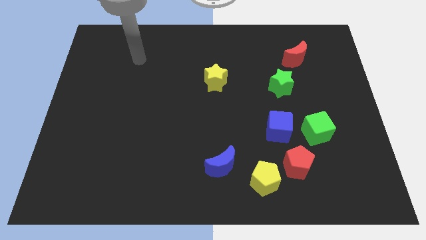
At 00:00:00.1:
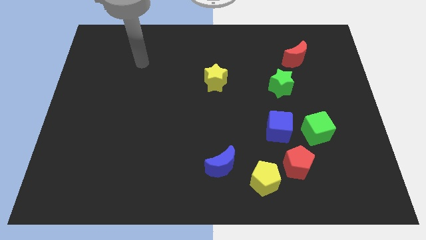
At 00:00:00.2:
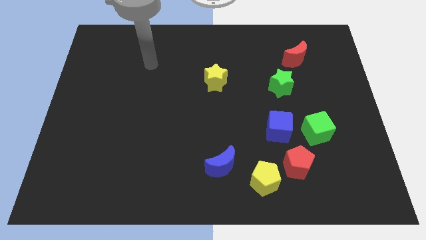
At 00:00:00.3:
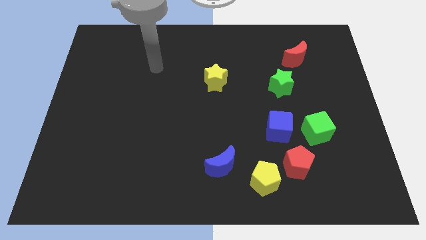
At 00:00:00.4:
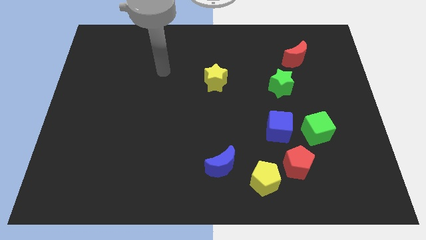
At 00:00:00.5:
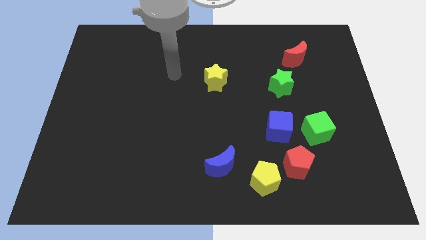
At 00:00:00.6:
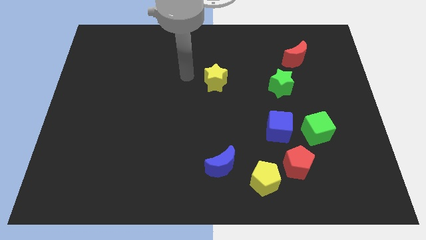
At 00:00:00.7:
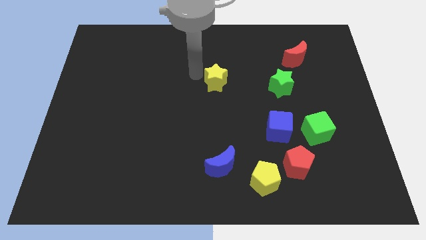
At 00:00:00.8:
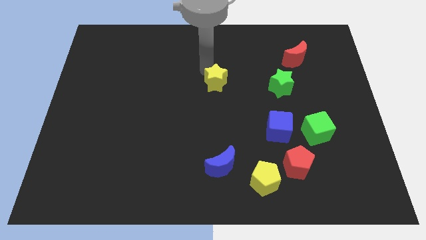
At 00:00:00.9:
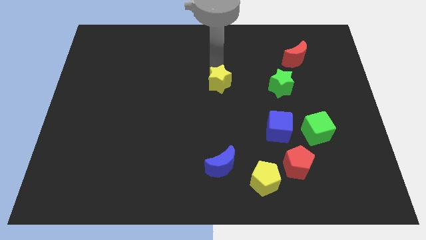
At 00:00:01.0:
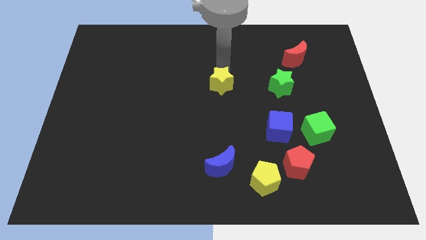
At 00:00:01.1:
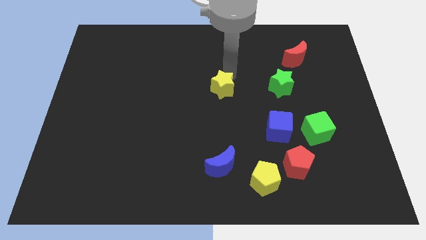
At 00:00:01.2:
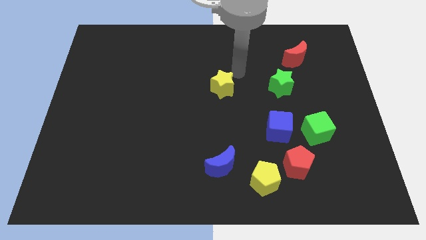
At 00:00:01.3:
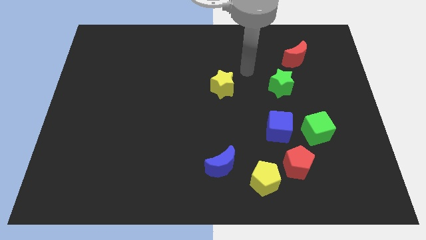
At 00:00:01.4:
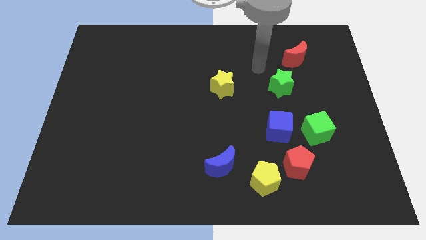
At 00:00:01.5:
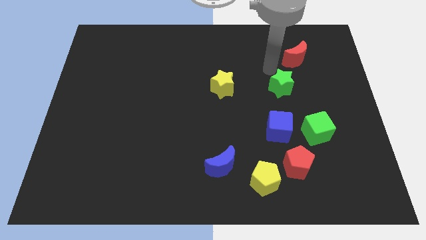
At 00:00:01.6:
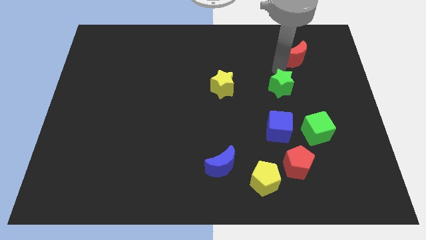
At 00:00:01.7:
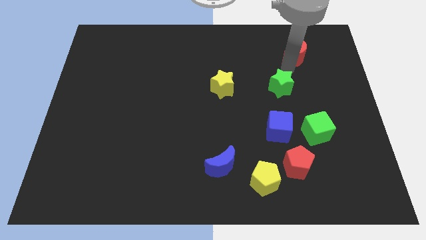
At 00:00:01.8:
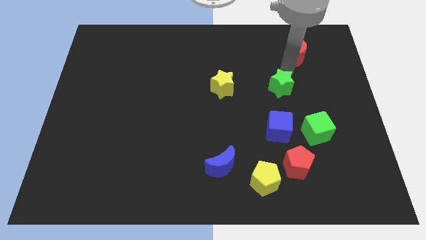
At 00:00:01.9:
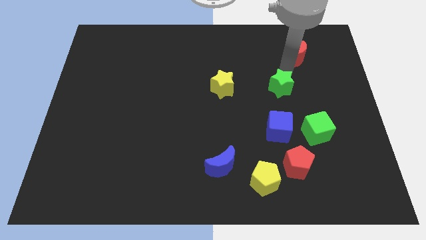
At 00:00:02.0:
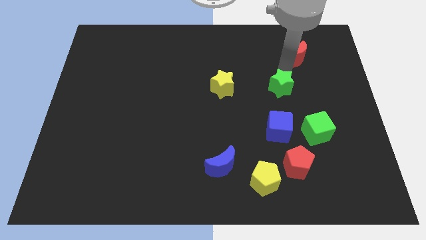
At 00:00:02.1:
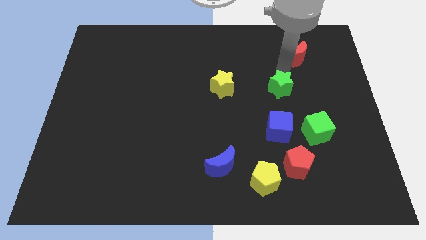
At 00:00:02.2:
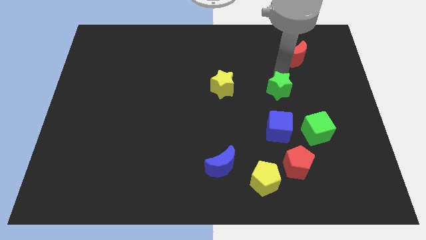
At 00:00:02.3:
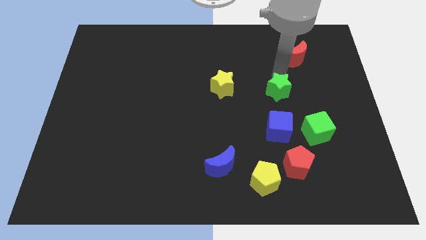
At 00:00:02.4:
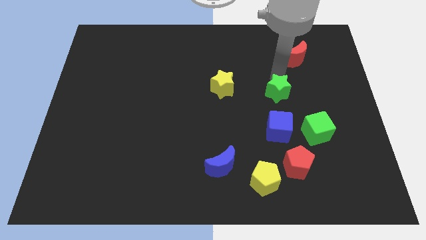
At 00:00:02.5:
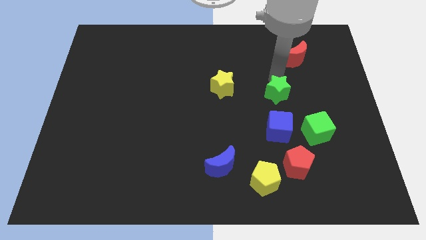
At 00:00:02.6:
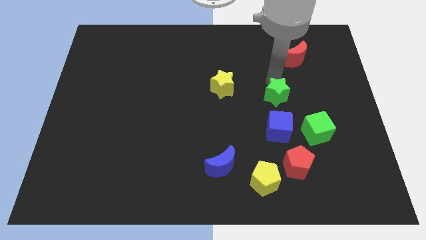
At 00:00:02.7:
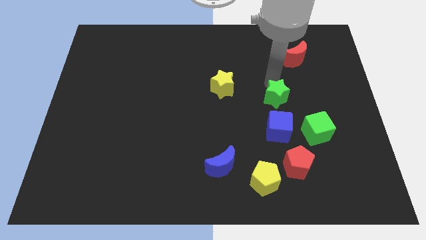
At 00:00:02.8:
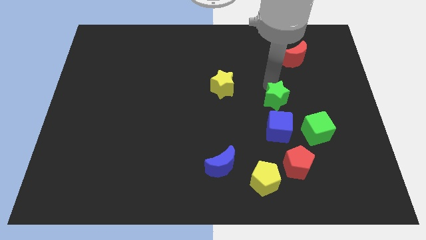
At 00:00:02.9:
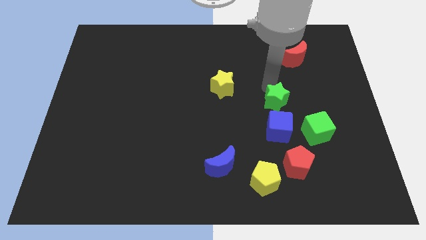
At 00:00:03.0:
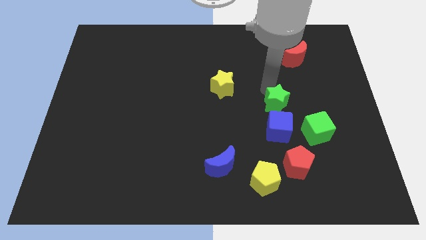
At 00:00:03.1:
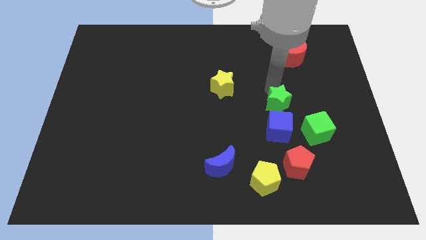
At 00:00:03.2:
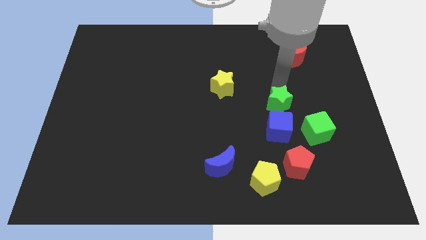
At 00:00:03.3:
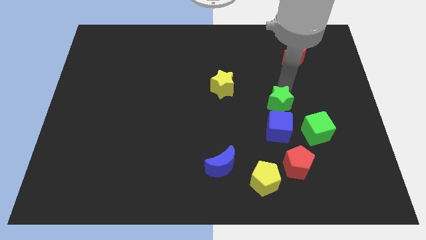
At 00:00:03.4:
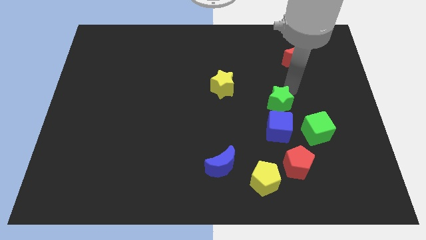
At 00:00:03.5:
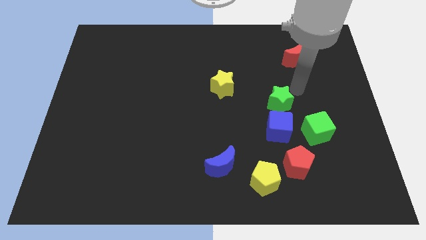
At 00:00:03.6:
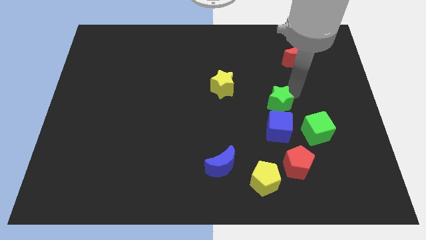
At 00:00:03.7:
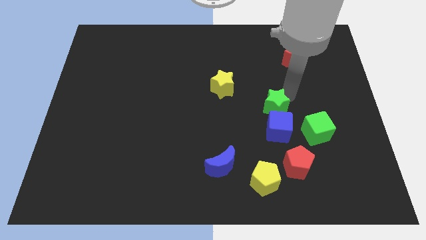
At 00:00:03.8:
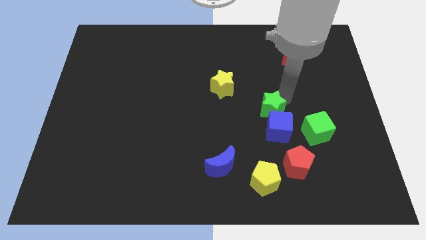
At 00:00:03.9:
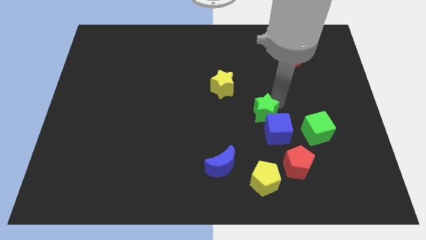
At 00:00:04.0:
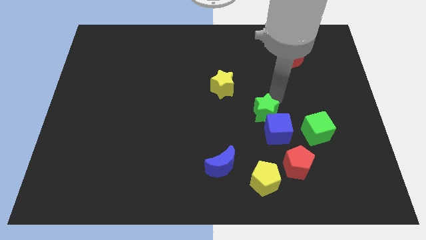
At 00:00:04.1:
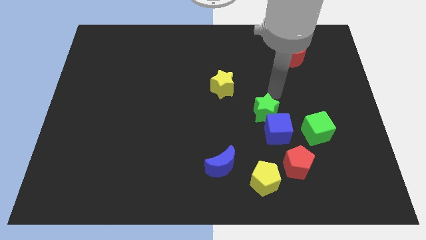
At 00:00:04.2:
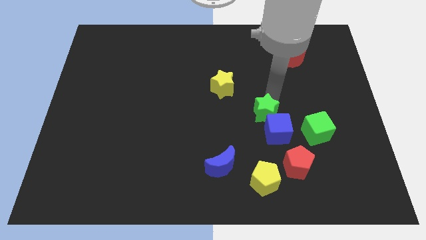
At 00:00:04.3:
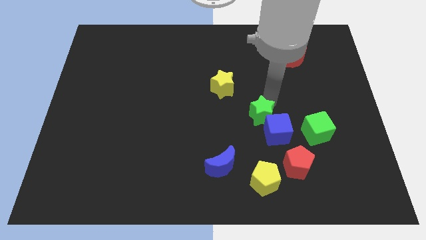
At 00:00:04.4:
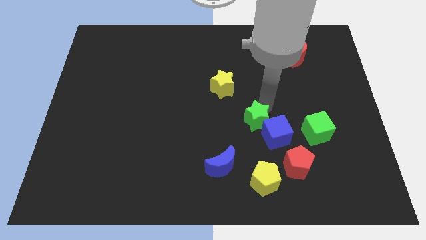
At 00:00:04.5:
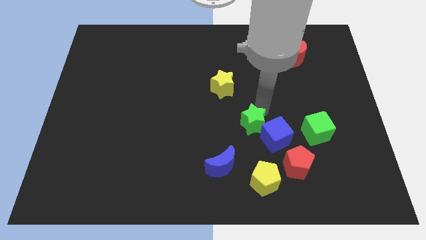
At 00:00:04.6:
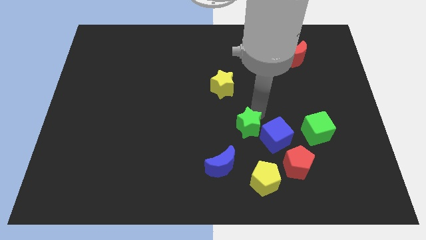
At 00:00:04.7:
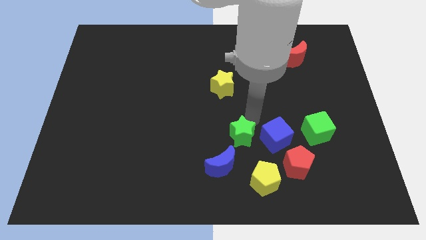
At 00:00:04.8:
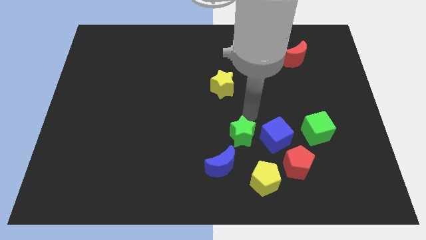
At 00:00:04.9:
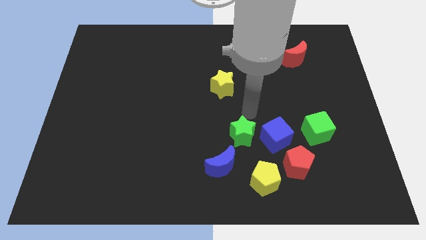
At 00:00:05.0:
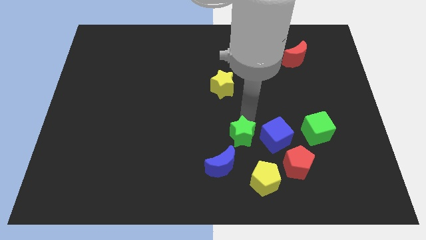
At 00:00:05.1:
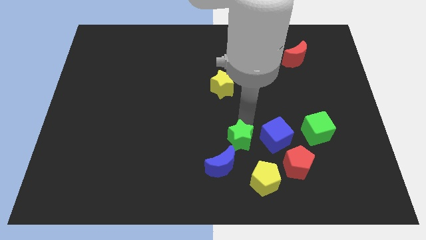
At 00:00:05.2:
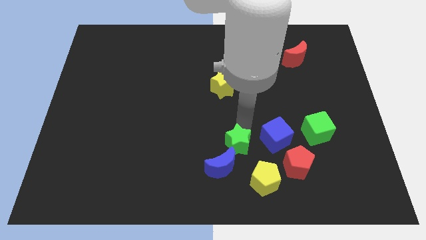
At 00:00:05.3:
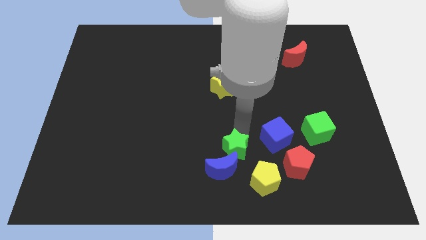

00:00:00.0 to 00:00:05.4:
put the green star to the blue moon

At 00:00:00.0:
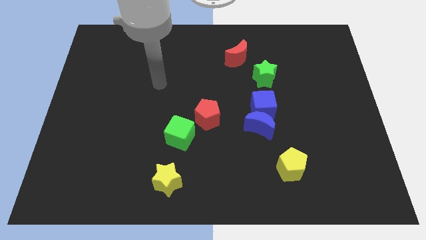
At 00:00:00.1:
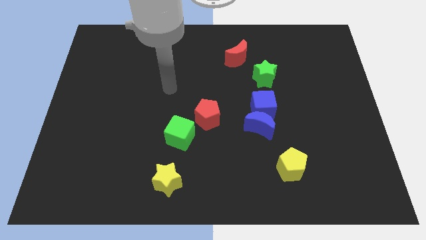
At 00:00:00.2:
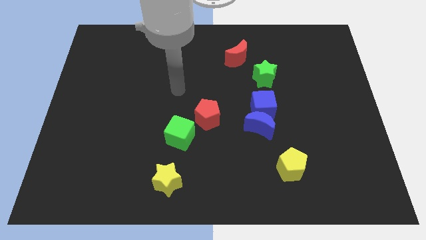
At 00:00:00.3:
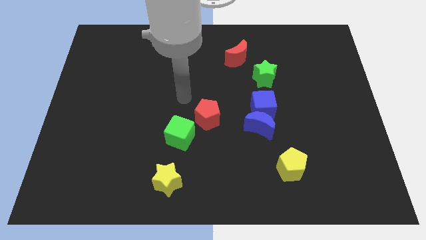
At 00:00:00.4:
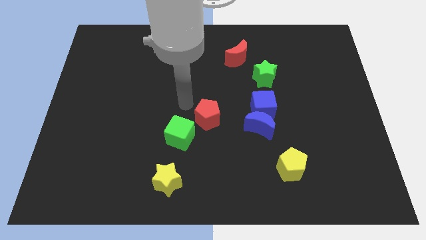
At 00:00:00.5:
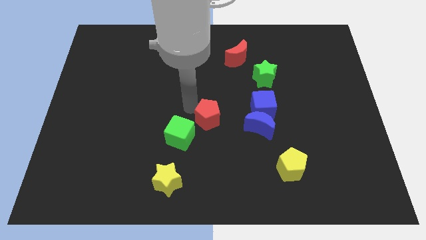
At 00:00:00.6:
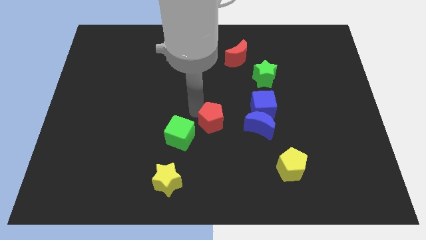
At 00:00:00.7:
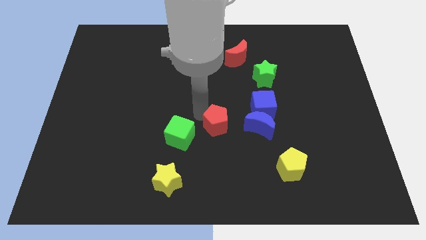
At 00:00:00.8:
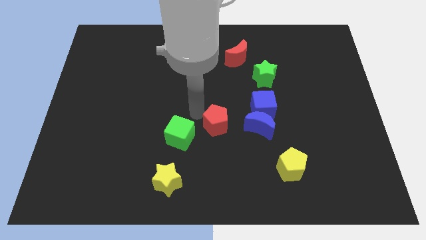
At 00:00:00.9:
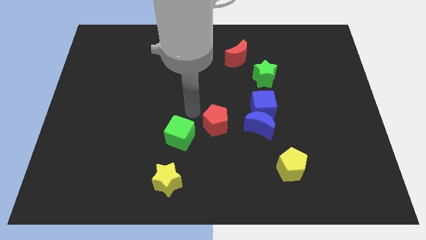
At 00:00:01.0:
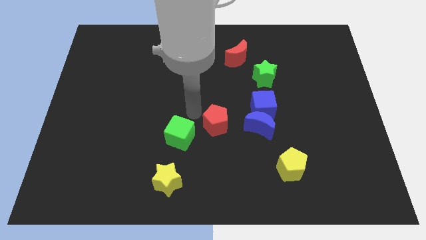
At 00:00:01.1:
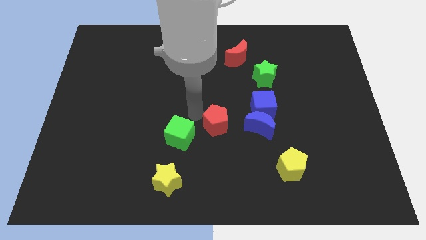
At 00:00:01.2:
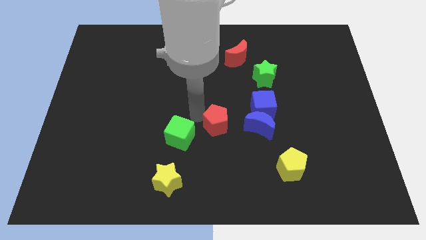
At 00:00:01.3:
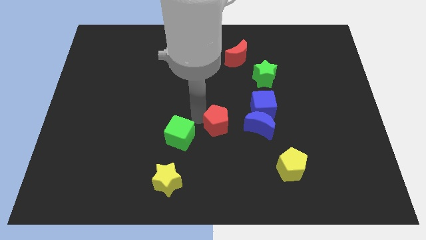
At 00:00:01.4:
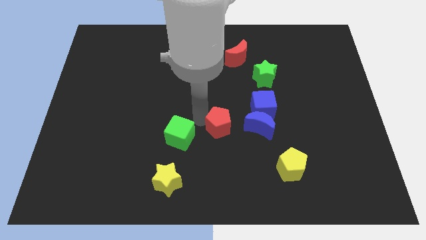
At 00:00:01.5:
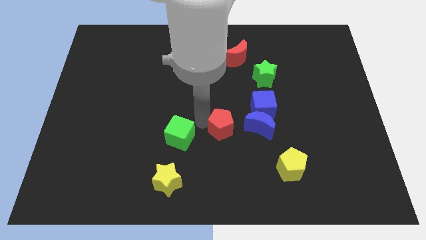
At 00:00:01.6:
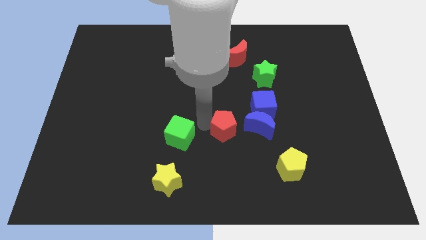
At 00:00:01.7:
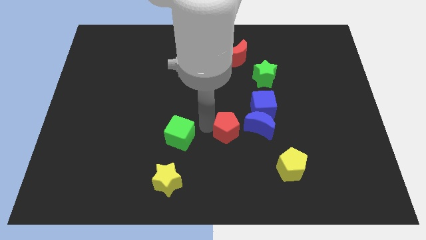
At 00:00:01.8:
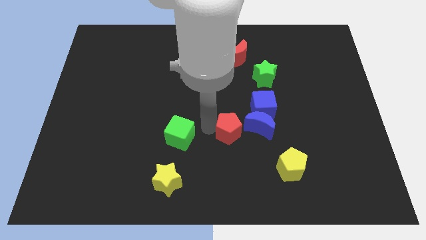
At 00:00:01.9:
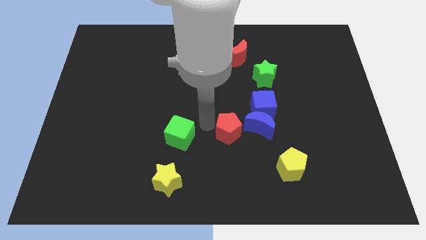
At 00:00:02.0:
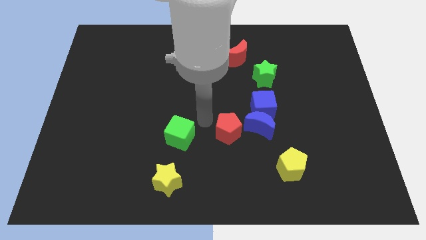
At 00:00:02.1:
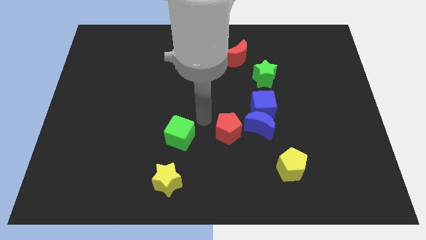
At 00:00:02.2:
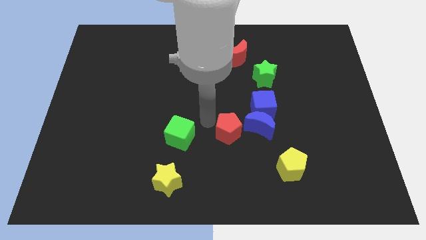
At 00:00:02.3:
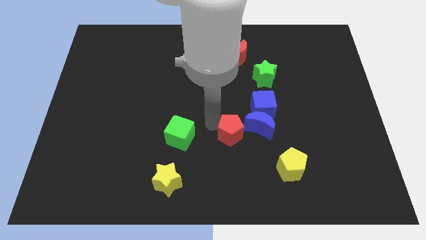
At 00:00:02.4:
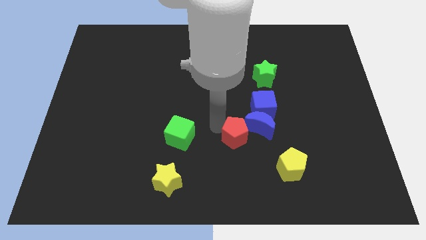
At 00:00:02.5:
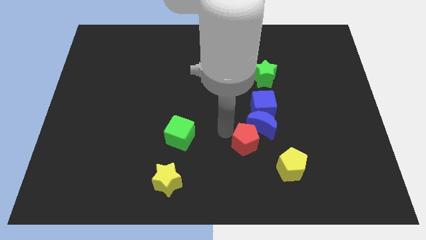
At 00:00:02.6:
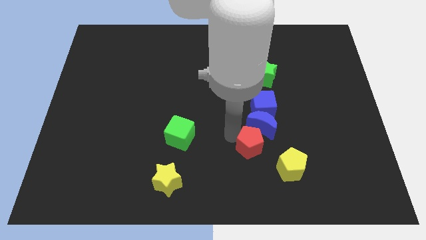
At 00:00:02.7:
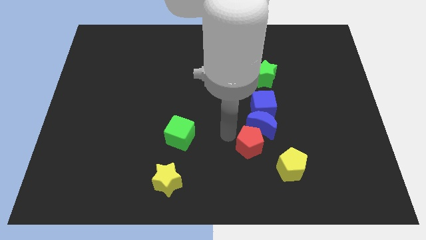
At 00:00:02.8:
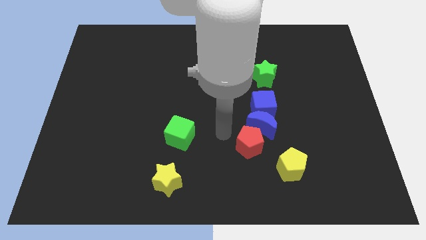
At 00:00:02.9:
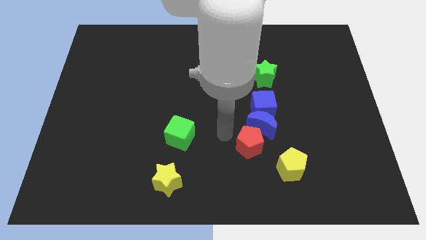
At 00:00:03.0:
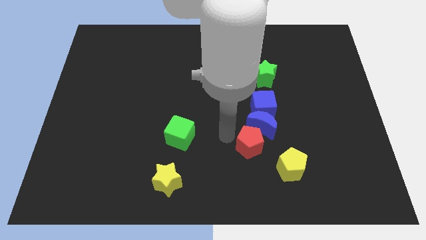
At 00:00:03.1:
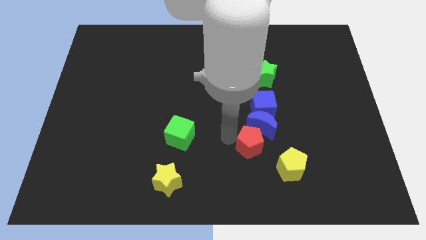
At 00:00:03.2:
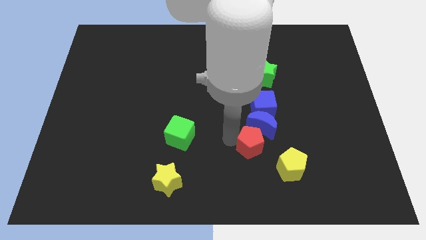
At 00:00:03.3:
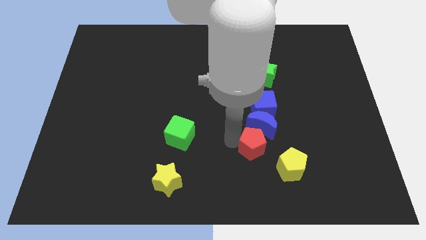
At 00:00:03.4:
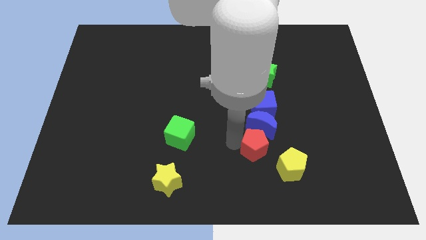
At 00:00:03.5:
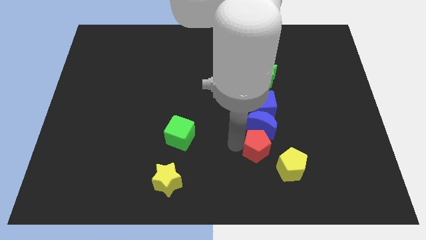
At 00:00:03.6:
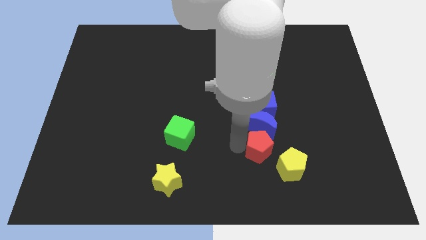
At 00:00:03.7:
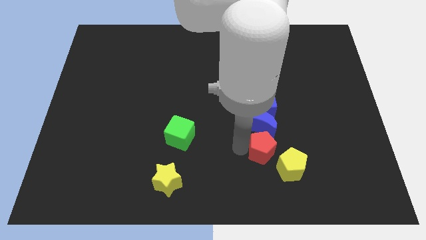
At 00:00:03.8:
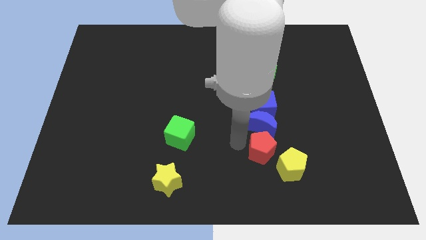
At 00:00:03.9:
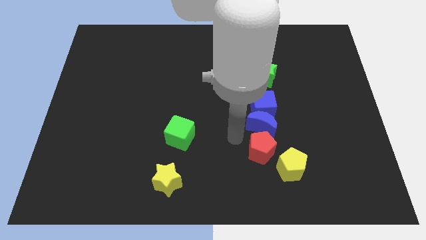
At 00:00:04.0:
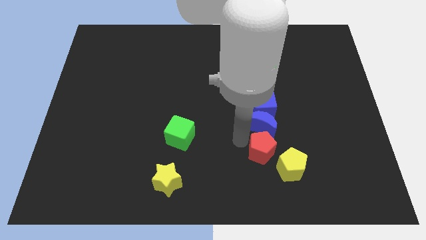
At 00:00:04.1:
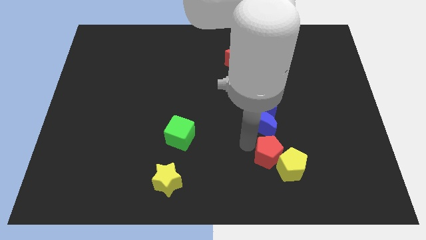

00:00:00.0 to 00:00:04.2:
put the red pentagon next to the yellow pentagon
